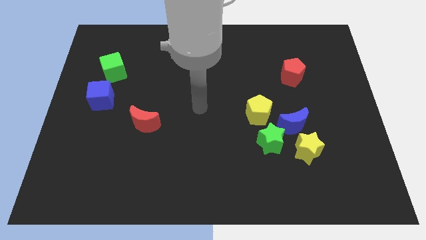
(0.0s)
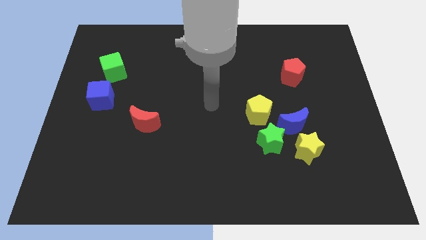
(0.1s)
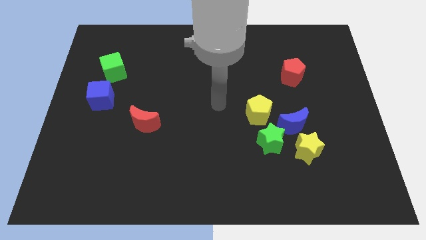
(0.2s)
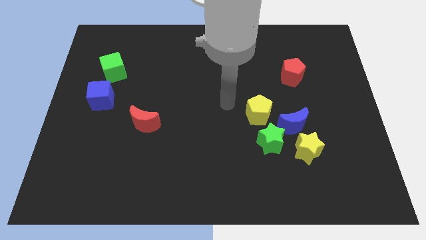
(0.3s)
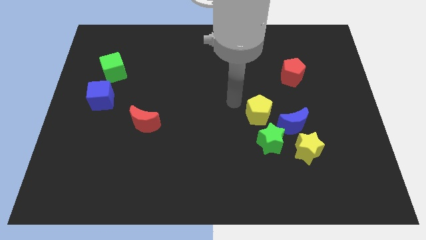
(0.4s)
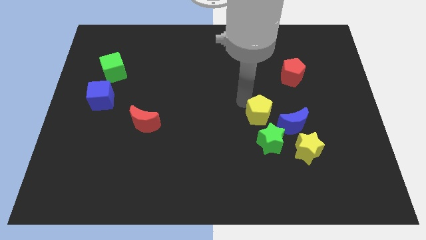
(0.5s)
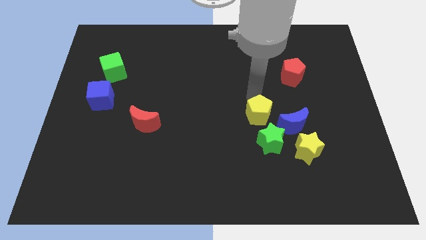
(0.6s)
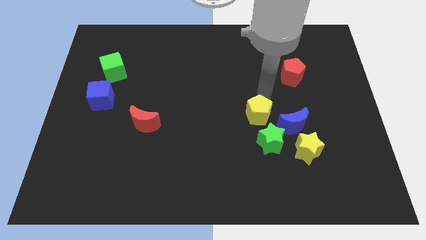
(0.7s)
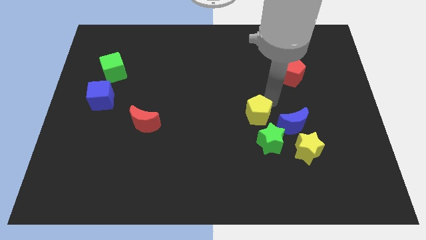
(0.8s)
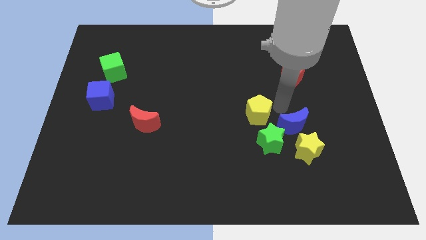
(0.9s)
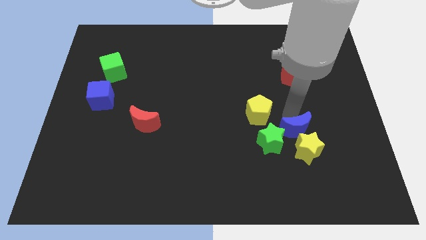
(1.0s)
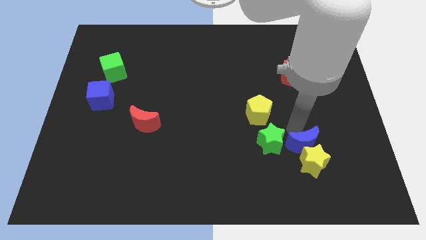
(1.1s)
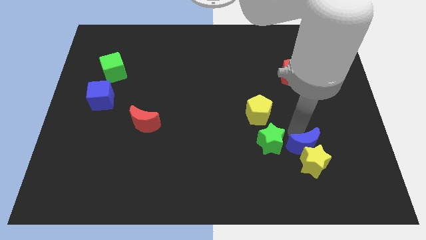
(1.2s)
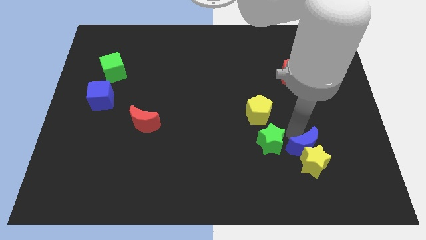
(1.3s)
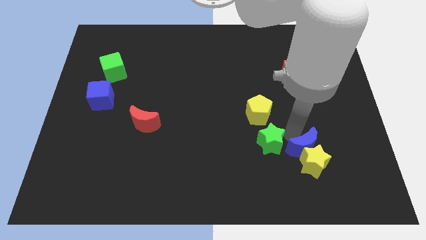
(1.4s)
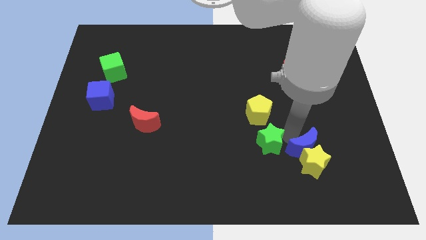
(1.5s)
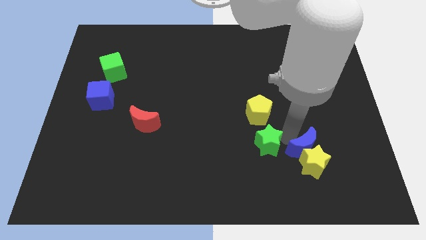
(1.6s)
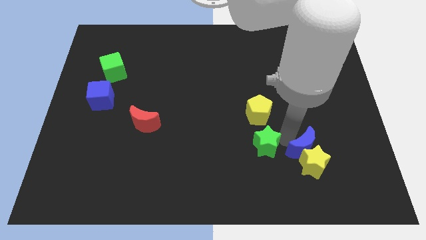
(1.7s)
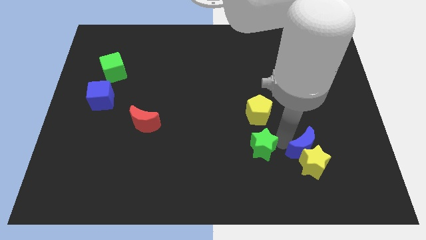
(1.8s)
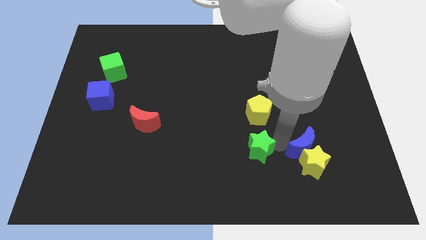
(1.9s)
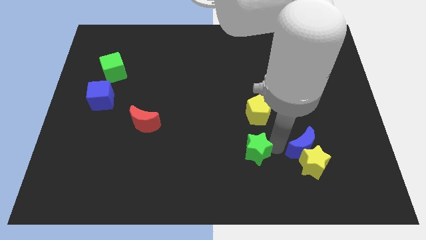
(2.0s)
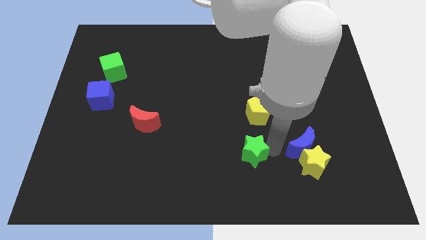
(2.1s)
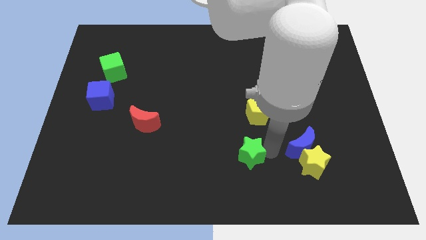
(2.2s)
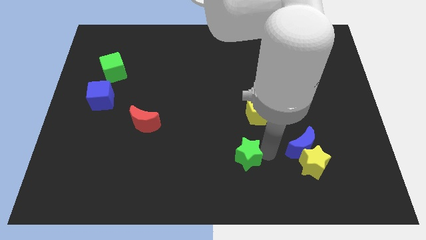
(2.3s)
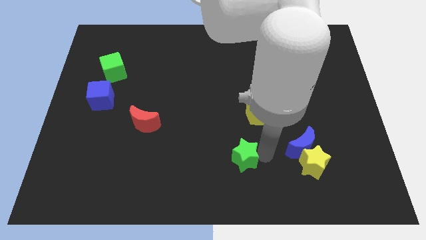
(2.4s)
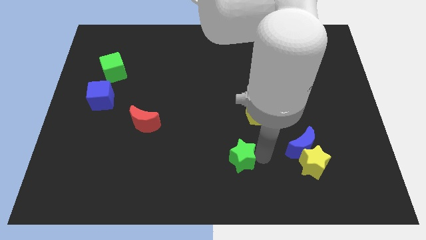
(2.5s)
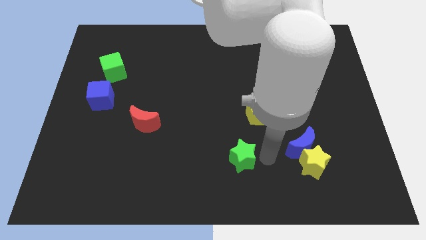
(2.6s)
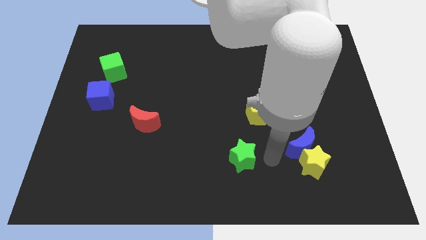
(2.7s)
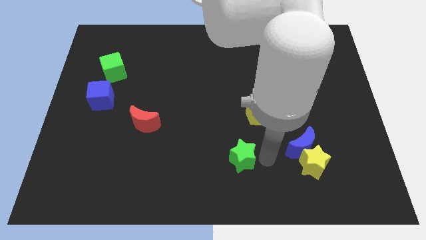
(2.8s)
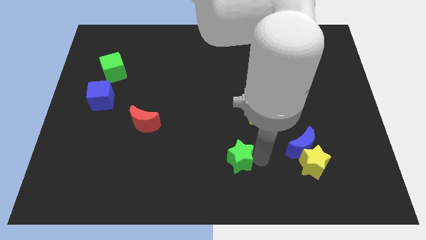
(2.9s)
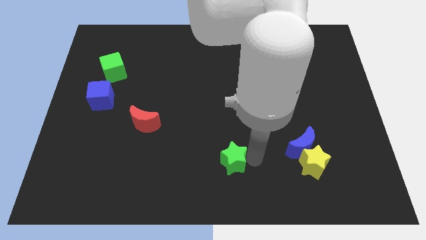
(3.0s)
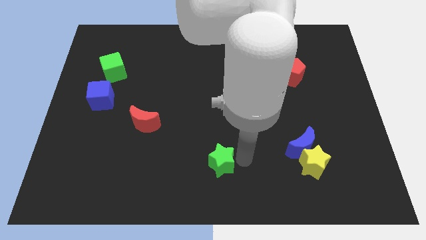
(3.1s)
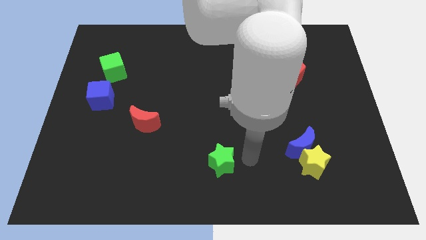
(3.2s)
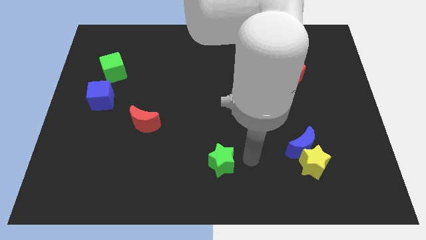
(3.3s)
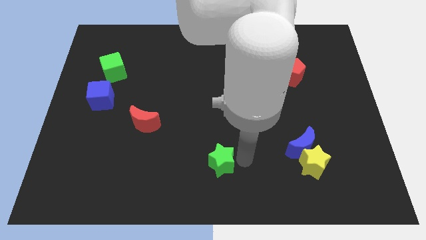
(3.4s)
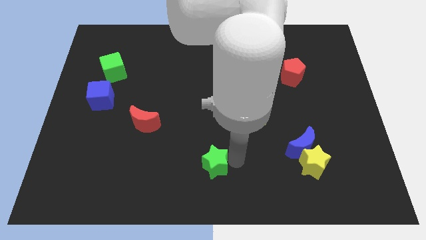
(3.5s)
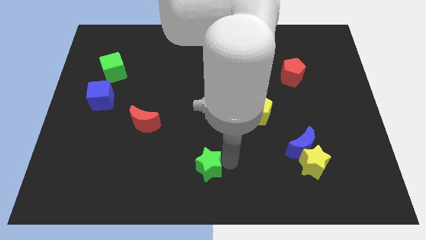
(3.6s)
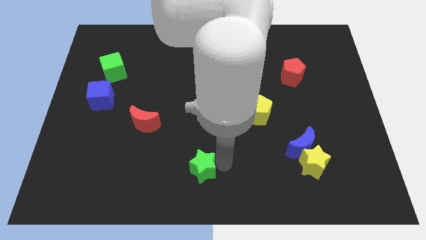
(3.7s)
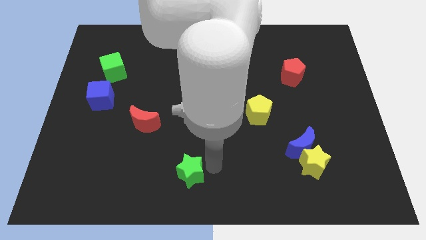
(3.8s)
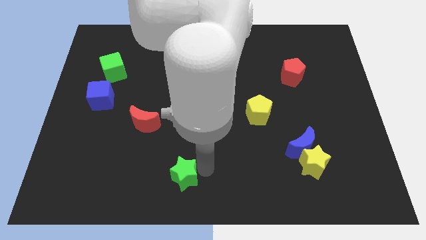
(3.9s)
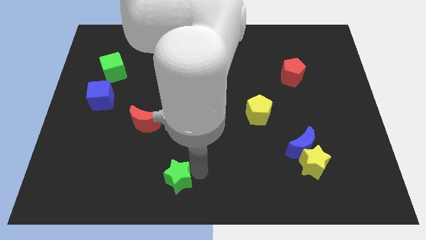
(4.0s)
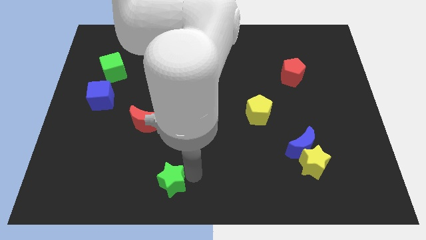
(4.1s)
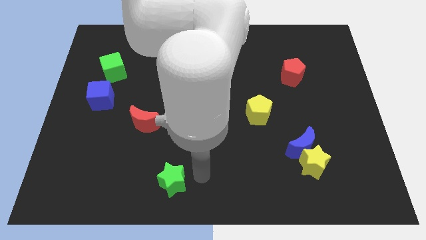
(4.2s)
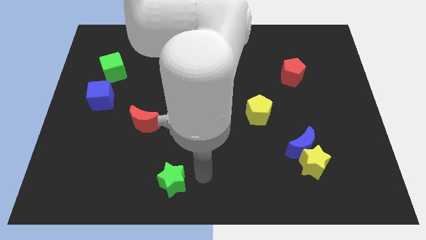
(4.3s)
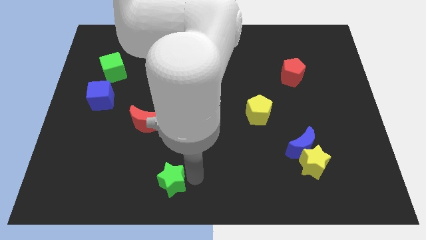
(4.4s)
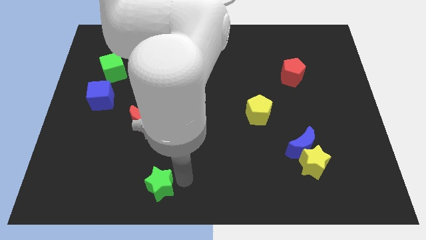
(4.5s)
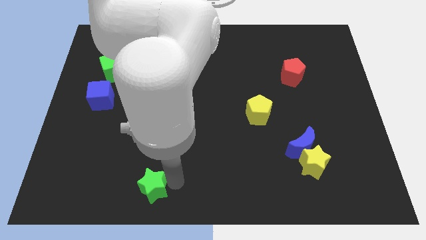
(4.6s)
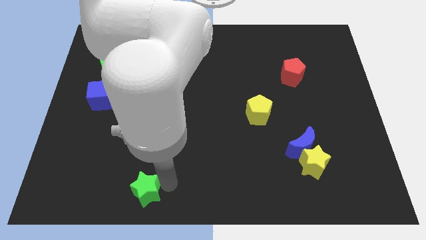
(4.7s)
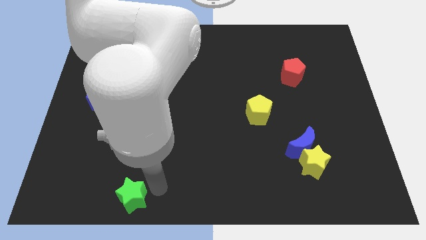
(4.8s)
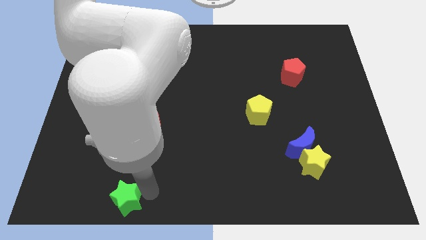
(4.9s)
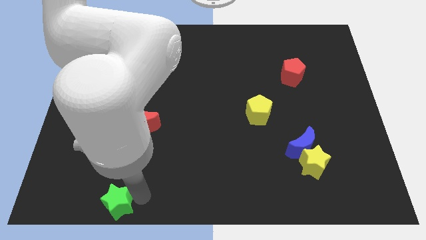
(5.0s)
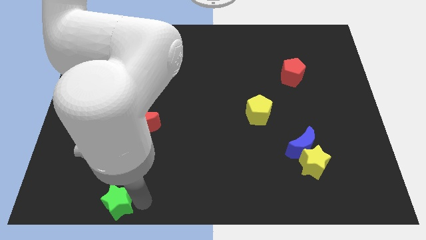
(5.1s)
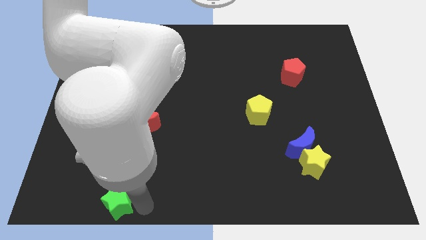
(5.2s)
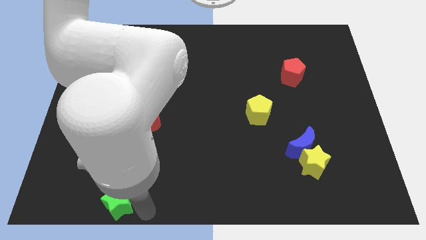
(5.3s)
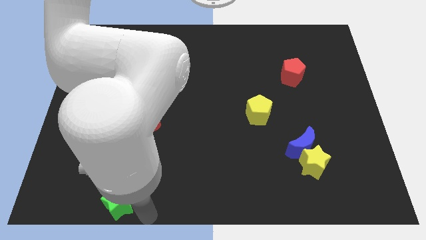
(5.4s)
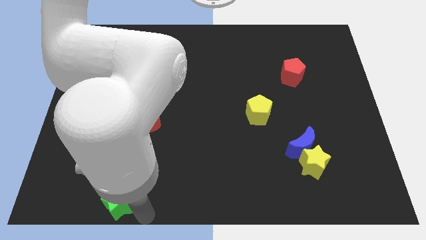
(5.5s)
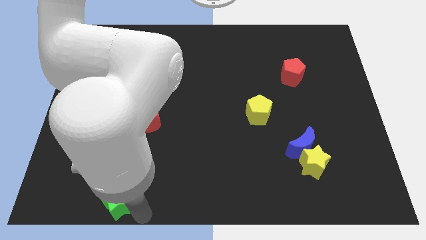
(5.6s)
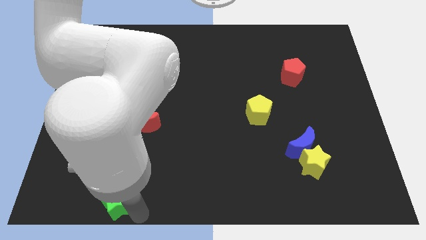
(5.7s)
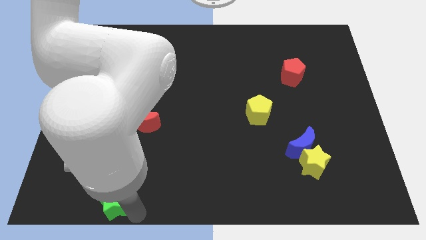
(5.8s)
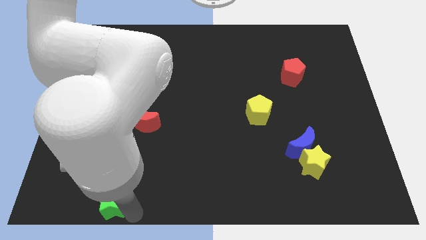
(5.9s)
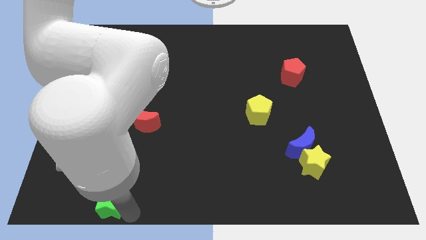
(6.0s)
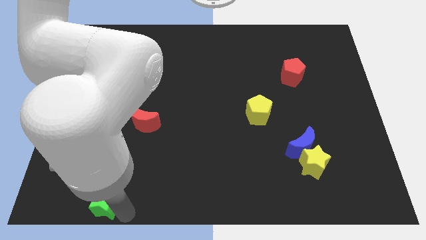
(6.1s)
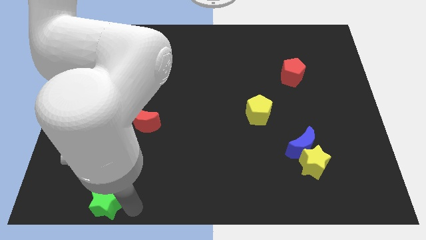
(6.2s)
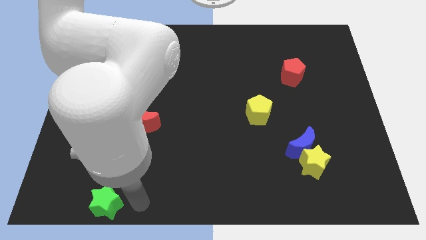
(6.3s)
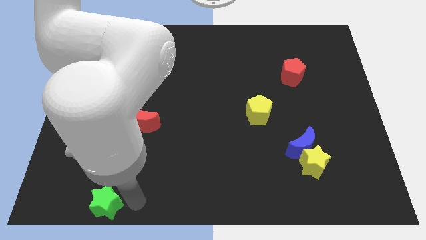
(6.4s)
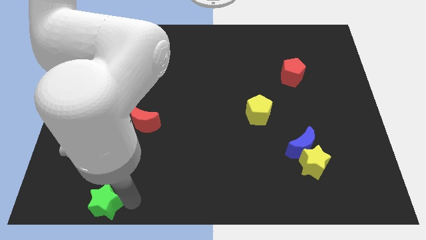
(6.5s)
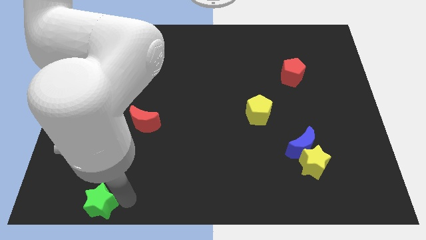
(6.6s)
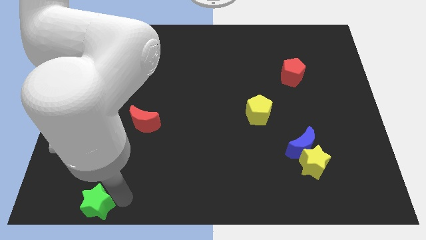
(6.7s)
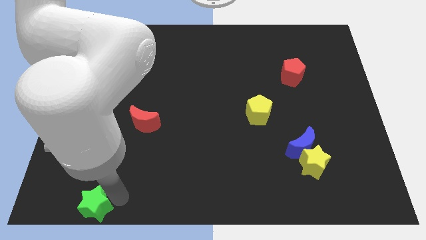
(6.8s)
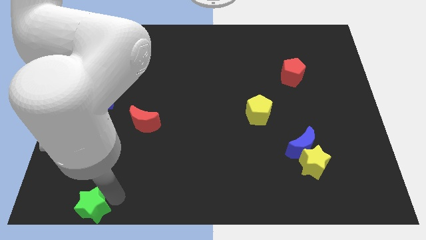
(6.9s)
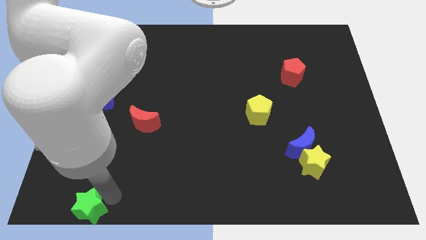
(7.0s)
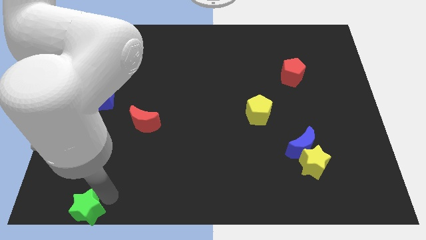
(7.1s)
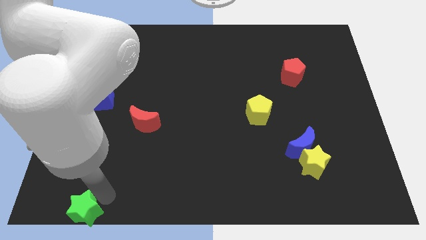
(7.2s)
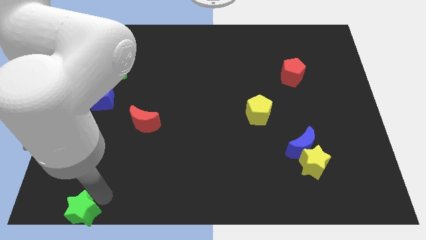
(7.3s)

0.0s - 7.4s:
put the green star to the lower left corner

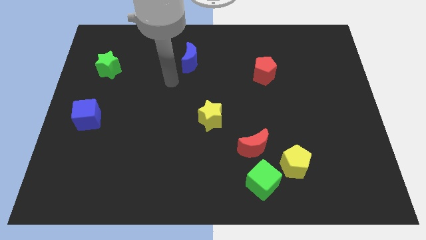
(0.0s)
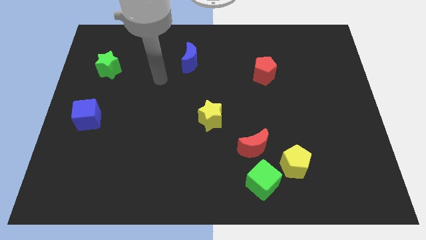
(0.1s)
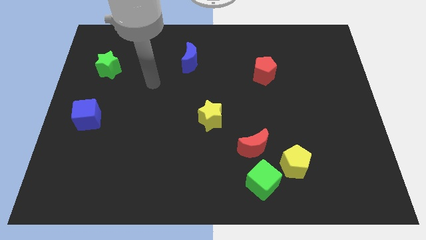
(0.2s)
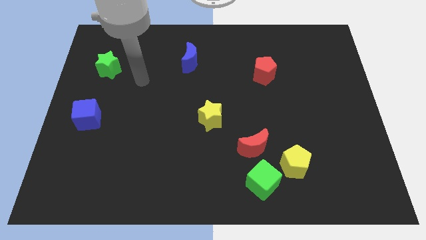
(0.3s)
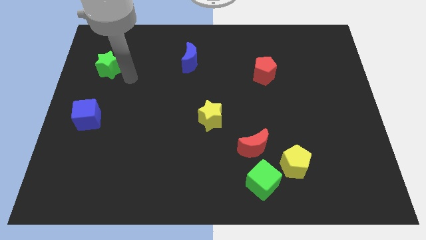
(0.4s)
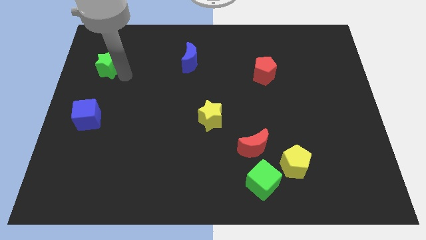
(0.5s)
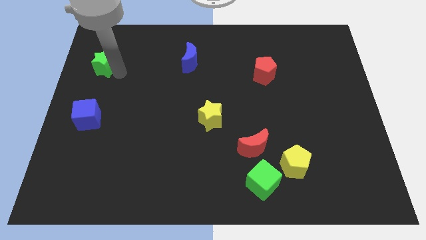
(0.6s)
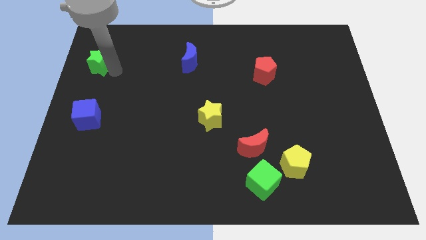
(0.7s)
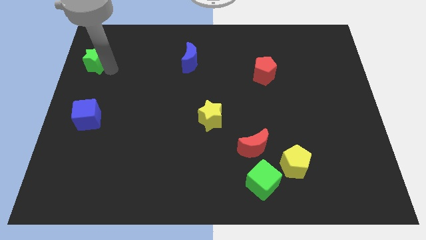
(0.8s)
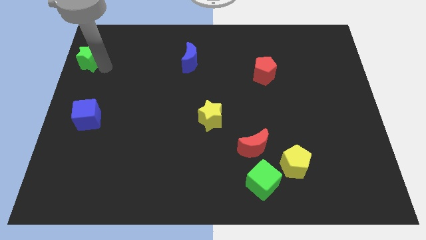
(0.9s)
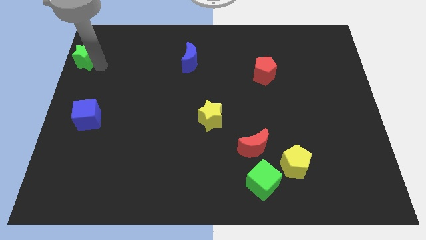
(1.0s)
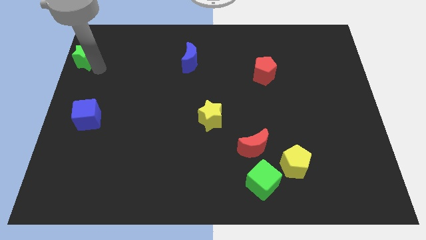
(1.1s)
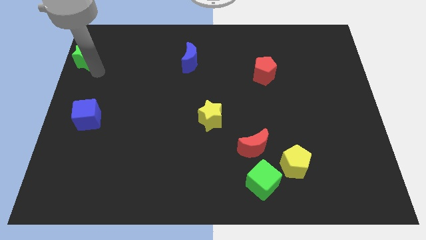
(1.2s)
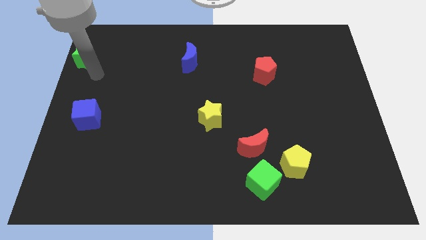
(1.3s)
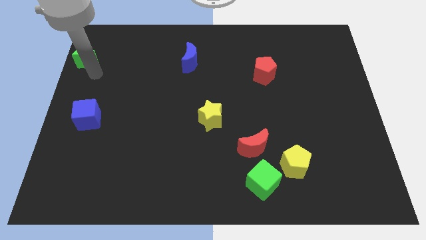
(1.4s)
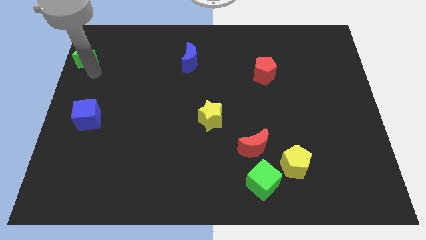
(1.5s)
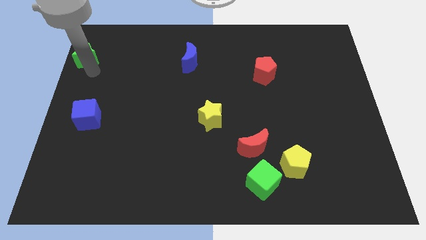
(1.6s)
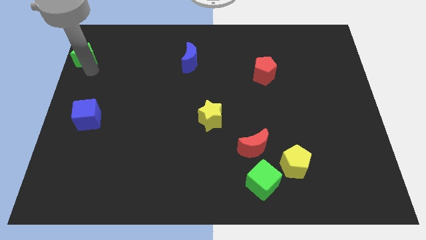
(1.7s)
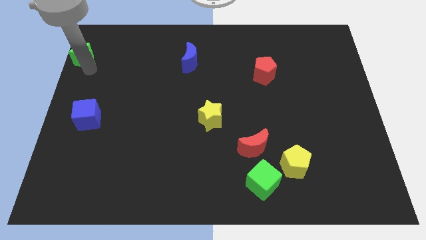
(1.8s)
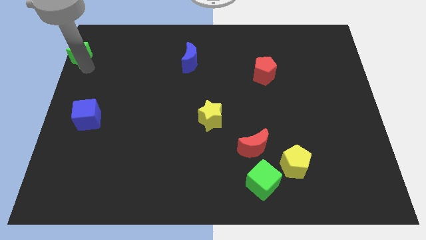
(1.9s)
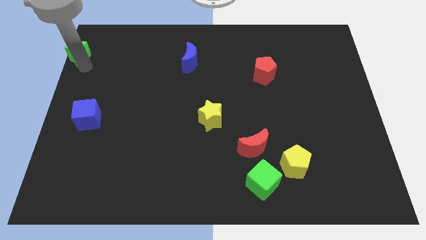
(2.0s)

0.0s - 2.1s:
put the green star to the top left of the board
